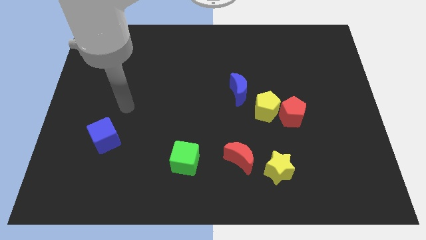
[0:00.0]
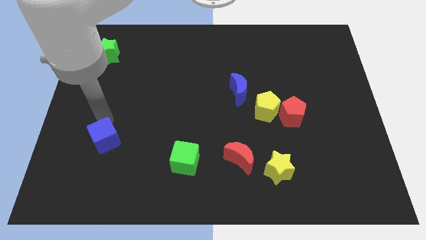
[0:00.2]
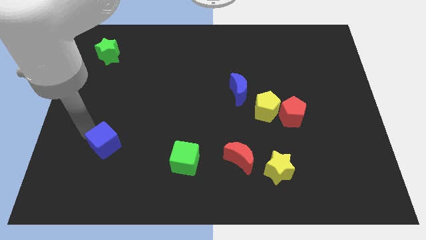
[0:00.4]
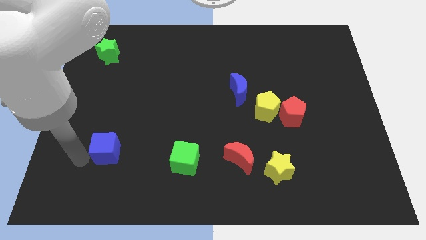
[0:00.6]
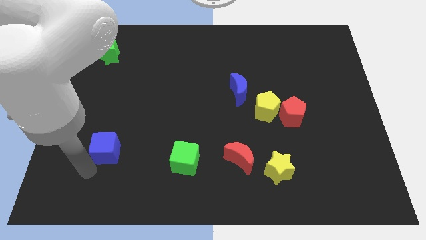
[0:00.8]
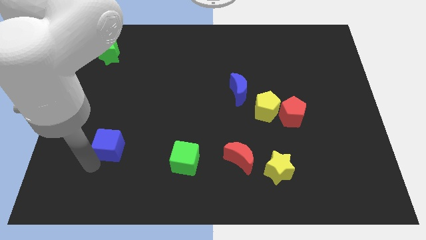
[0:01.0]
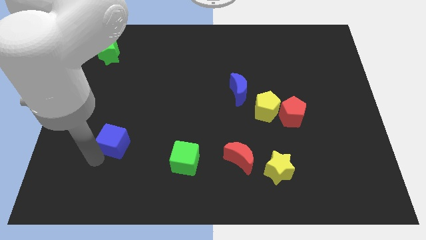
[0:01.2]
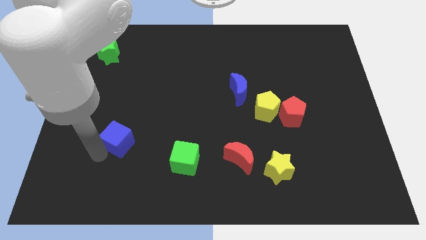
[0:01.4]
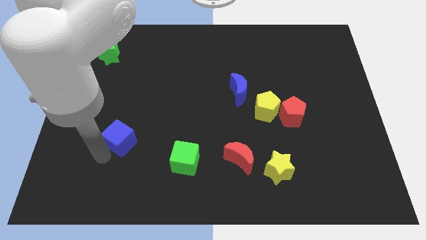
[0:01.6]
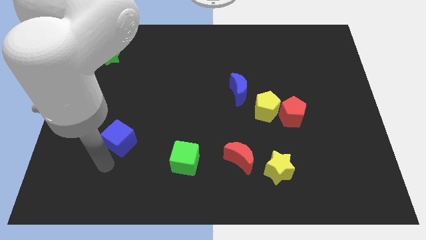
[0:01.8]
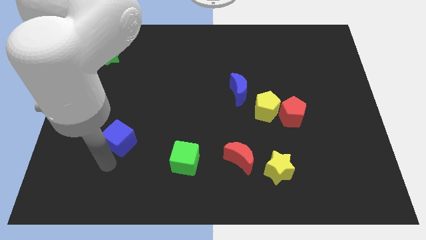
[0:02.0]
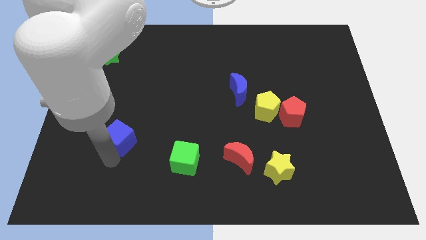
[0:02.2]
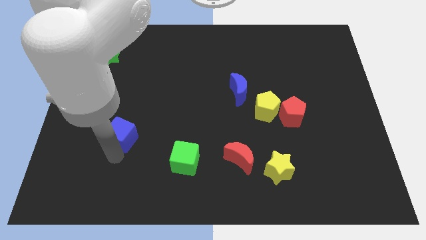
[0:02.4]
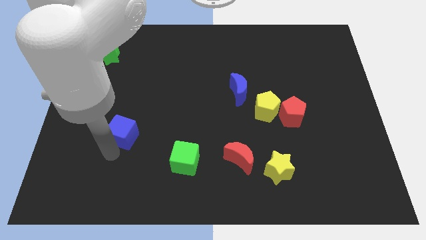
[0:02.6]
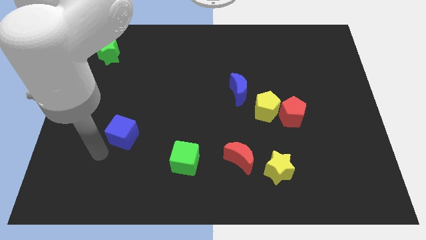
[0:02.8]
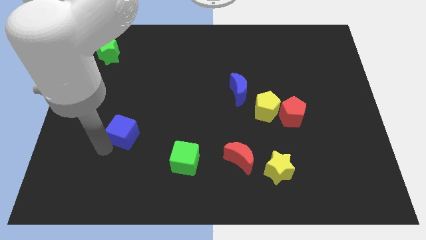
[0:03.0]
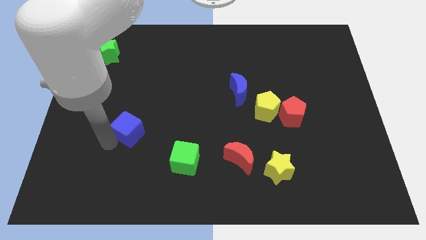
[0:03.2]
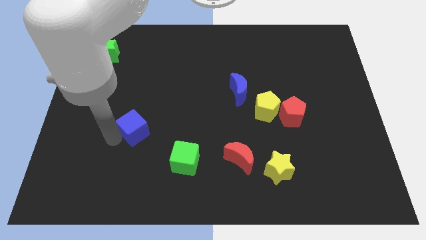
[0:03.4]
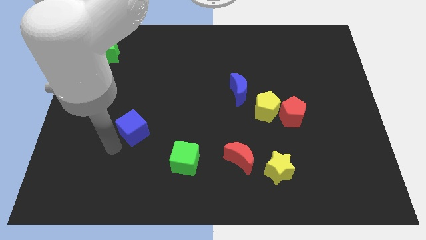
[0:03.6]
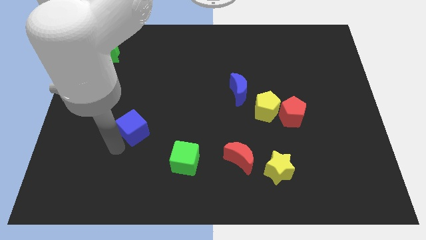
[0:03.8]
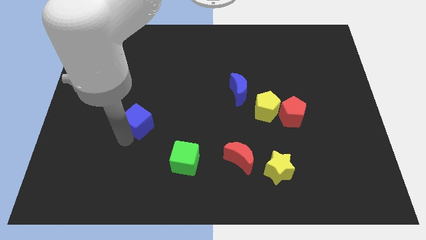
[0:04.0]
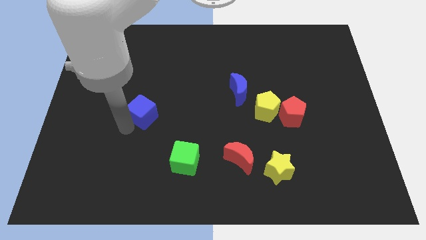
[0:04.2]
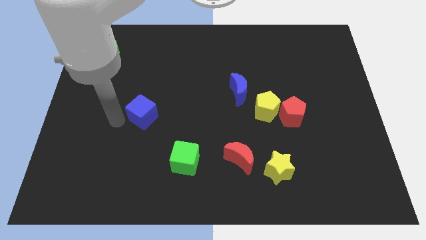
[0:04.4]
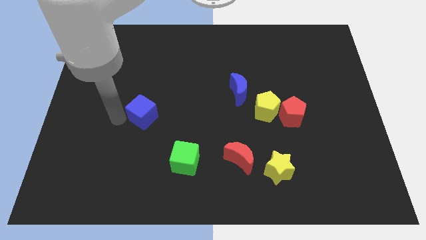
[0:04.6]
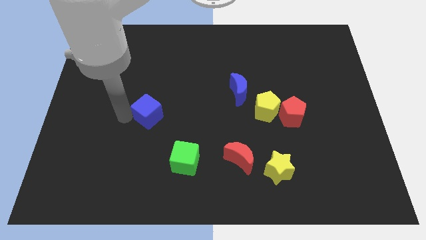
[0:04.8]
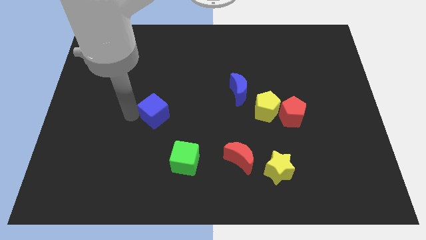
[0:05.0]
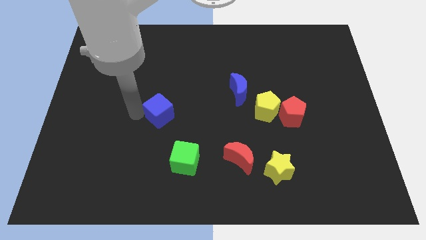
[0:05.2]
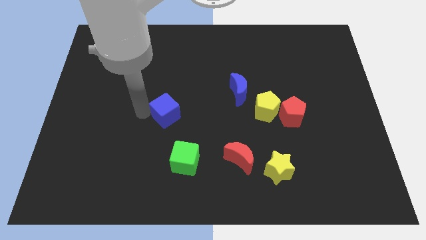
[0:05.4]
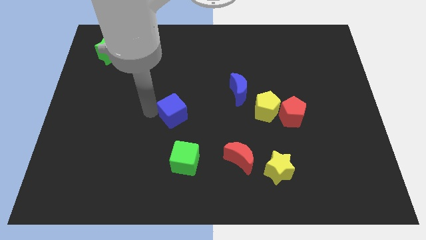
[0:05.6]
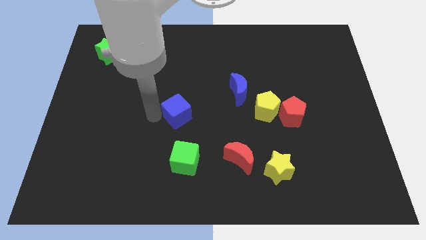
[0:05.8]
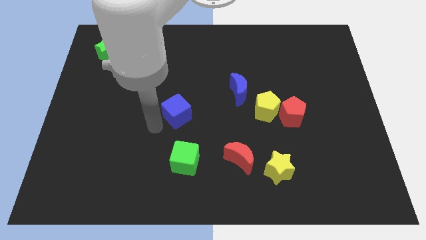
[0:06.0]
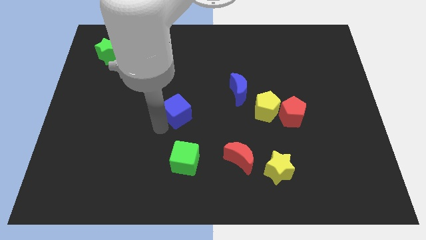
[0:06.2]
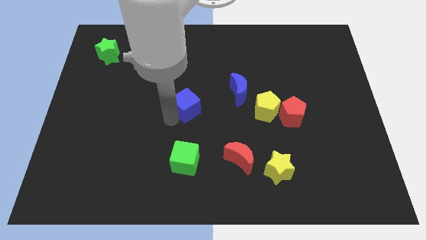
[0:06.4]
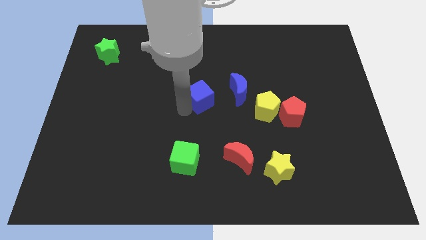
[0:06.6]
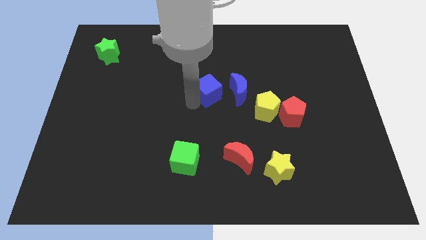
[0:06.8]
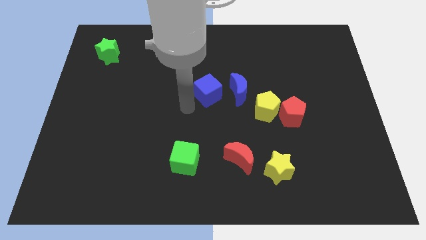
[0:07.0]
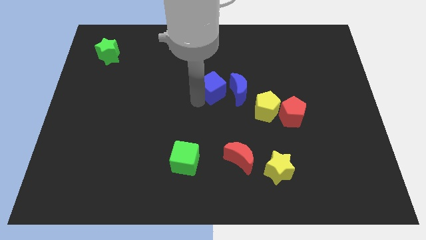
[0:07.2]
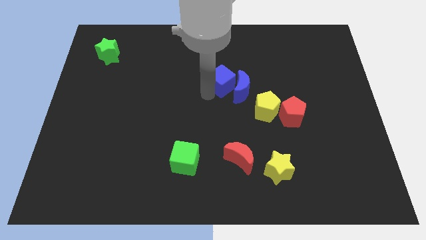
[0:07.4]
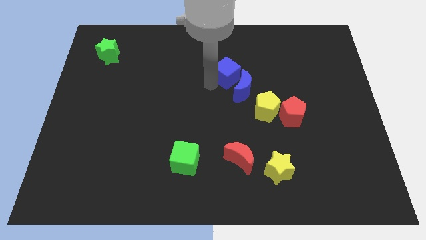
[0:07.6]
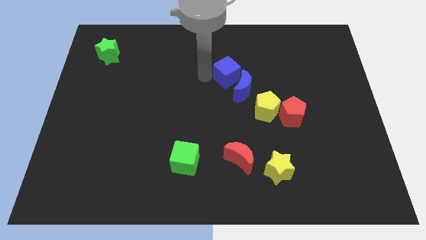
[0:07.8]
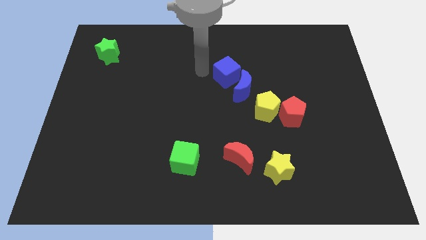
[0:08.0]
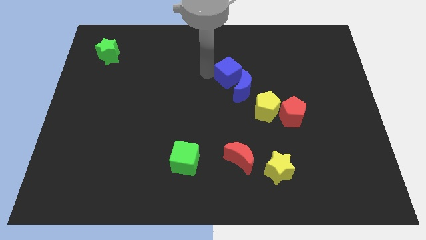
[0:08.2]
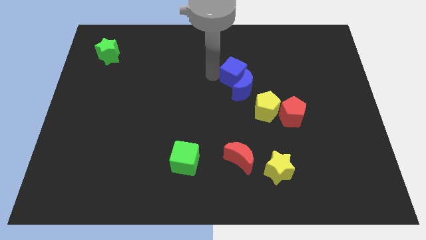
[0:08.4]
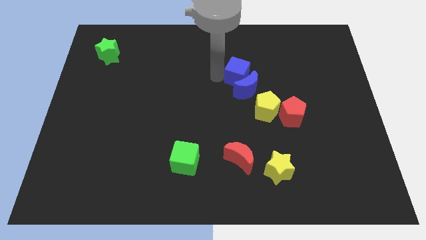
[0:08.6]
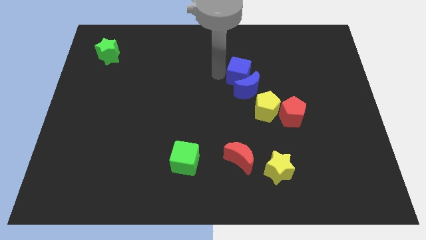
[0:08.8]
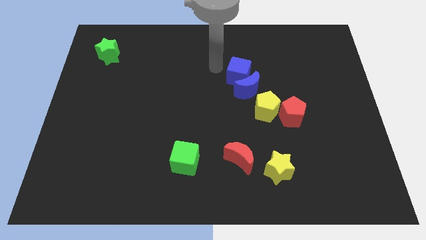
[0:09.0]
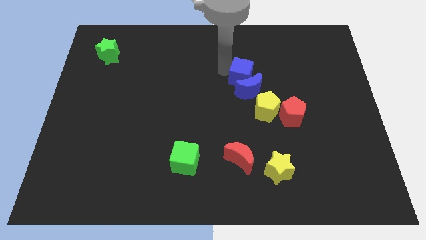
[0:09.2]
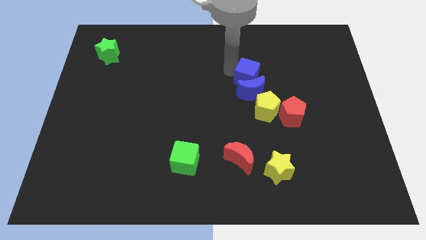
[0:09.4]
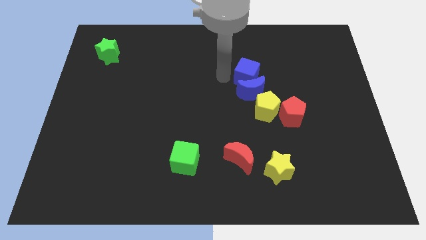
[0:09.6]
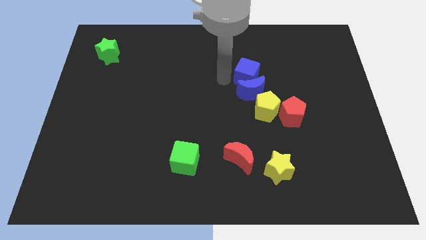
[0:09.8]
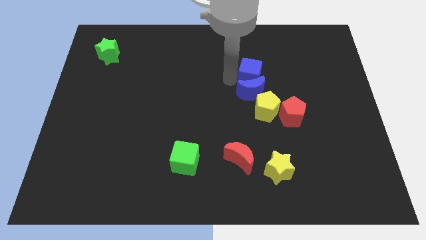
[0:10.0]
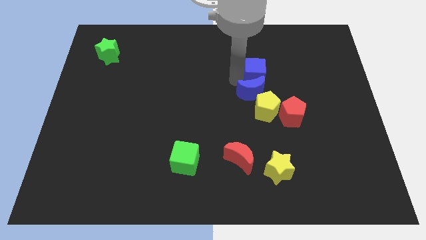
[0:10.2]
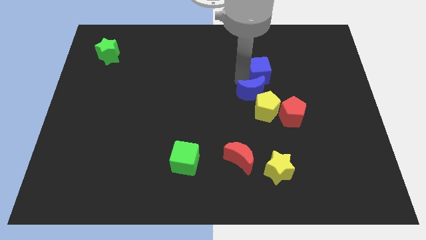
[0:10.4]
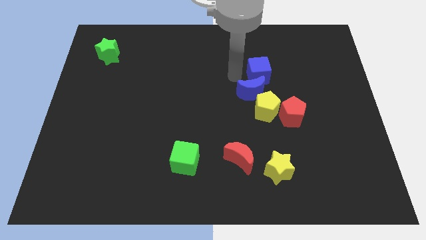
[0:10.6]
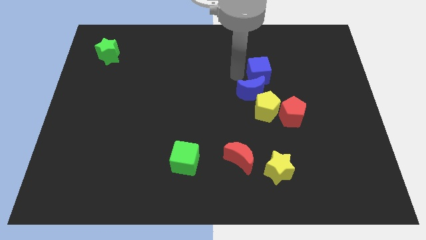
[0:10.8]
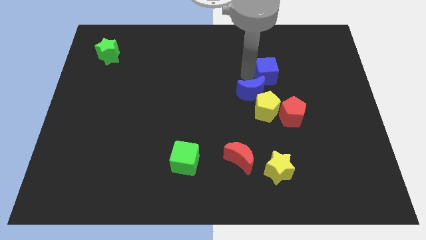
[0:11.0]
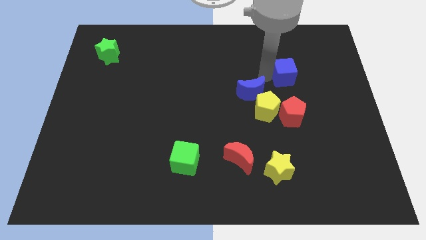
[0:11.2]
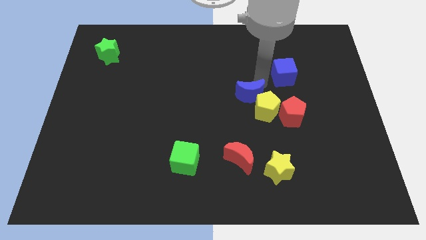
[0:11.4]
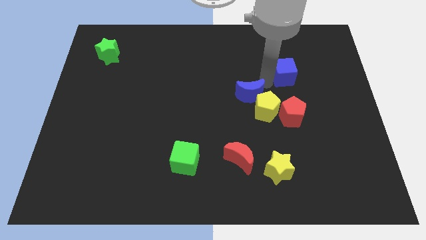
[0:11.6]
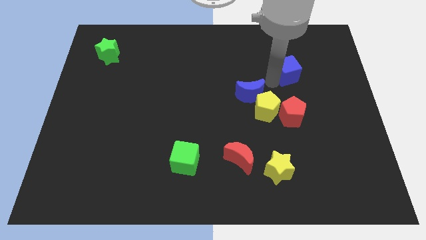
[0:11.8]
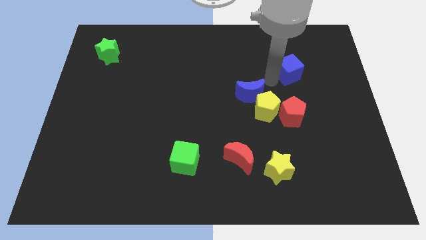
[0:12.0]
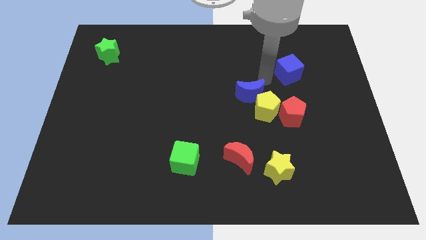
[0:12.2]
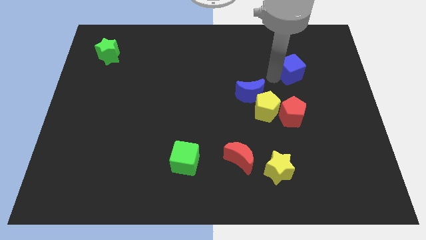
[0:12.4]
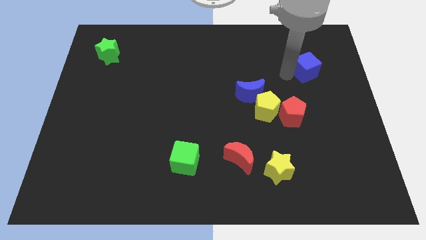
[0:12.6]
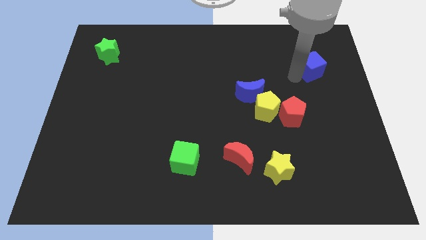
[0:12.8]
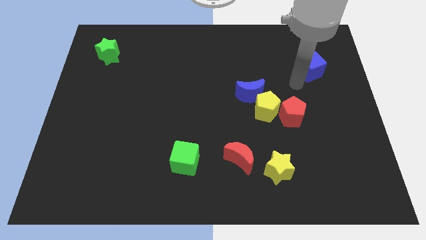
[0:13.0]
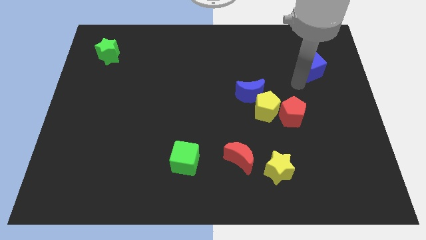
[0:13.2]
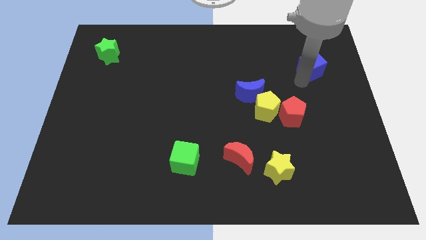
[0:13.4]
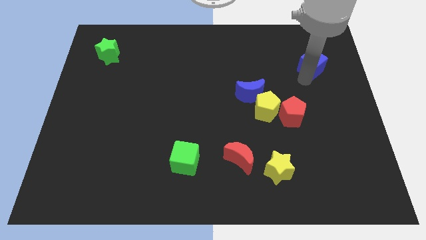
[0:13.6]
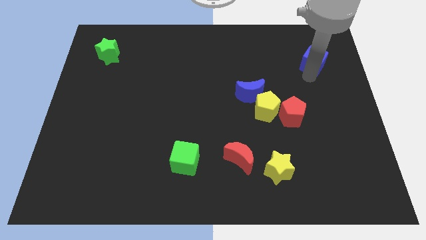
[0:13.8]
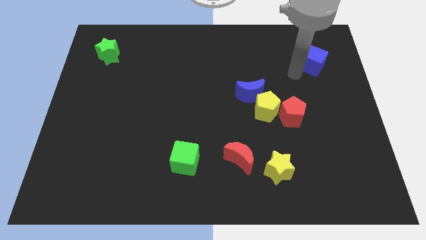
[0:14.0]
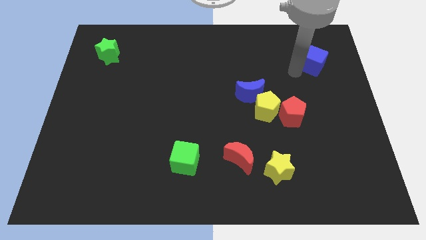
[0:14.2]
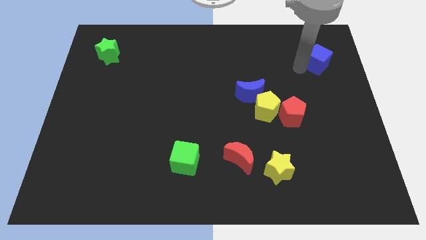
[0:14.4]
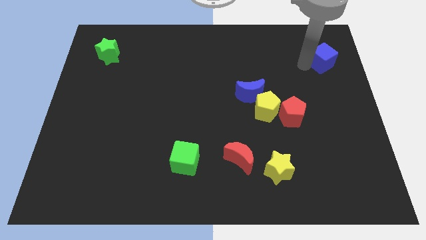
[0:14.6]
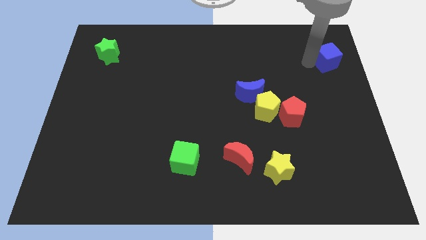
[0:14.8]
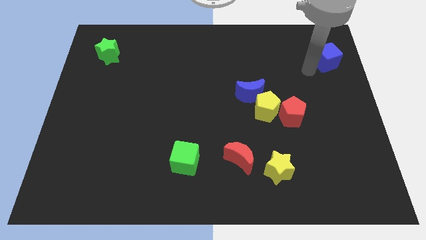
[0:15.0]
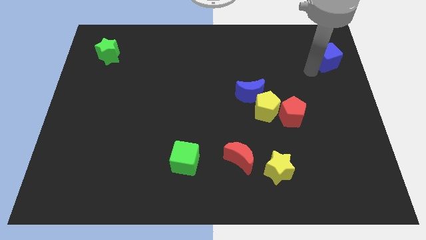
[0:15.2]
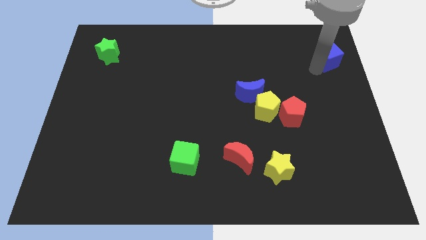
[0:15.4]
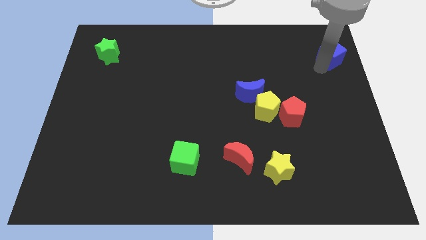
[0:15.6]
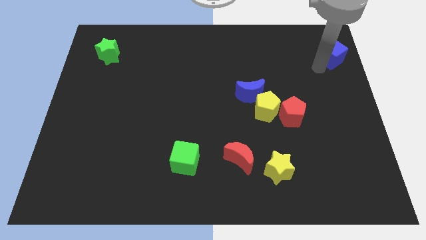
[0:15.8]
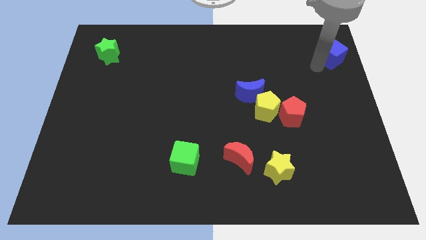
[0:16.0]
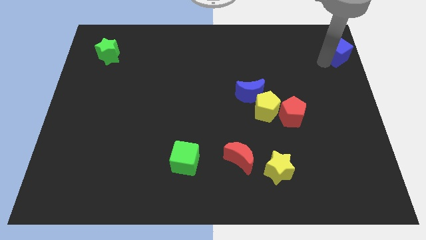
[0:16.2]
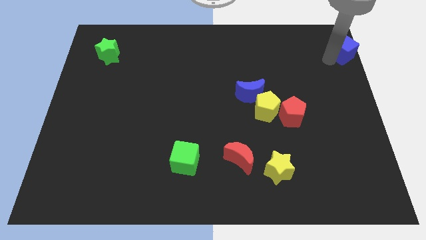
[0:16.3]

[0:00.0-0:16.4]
move the blue cube to the top right of the board

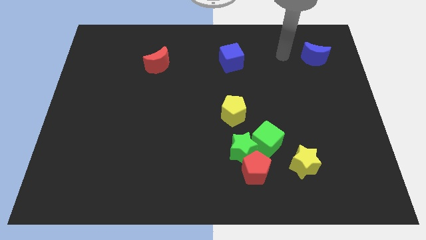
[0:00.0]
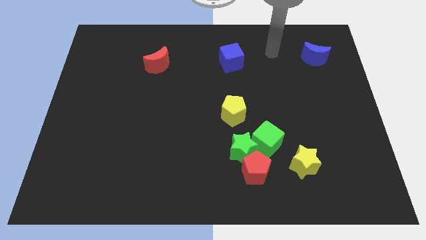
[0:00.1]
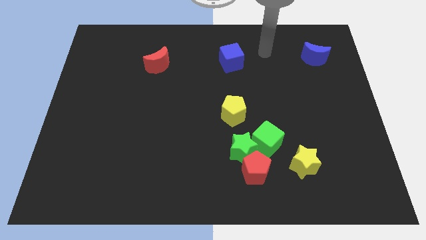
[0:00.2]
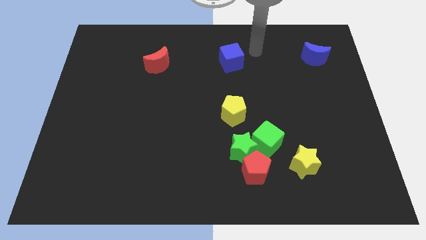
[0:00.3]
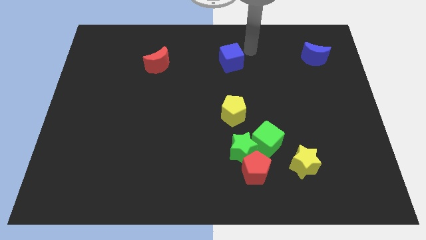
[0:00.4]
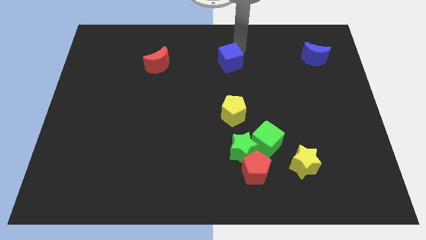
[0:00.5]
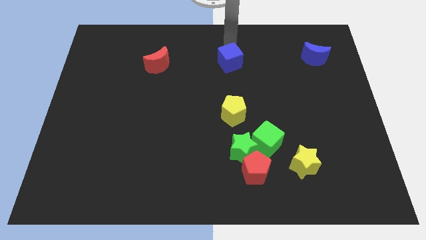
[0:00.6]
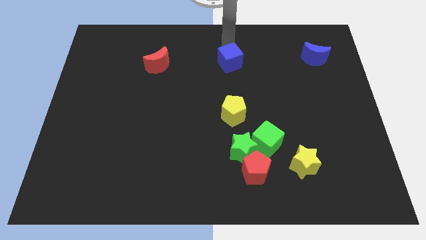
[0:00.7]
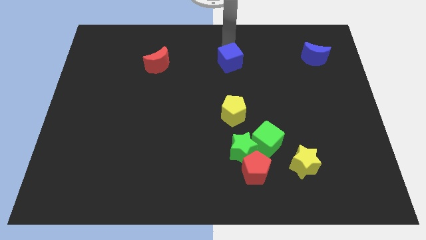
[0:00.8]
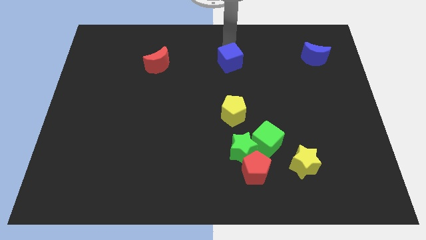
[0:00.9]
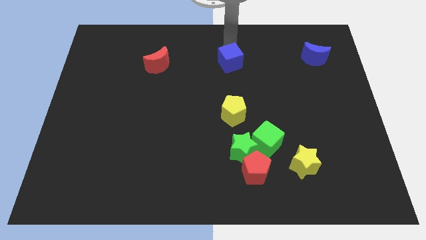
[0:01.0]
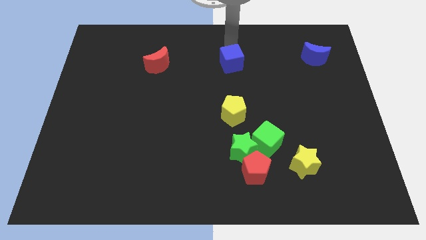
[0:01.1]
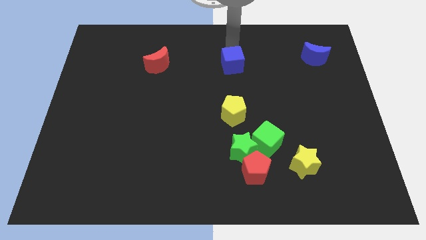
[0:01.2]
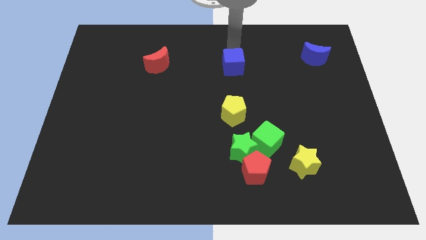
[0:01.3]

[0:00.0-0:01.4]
push the blue cube to the middle
